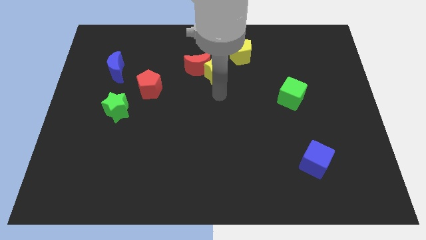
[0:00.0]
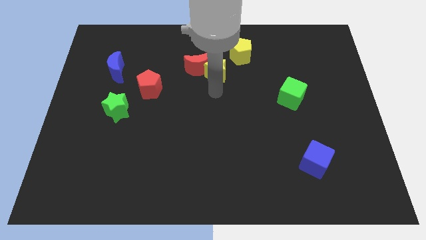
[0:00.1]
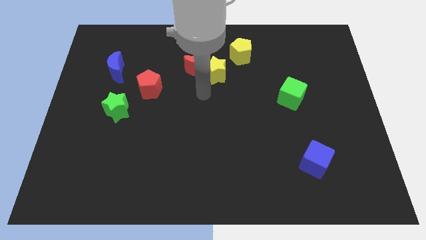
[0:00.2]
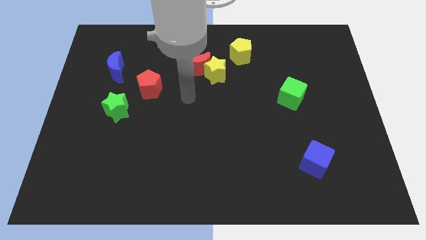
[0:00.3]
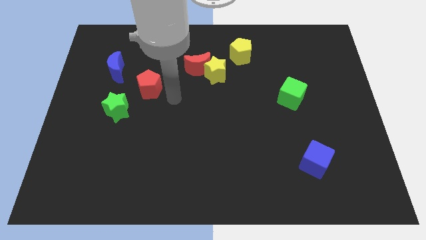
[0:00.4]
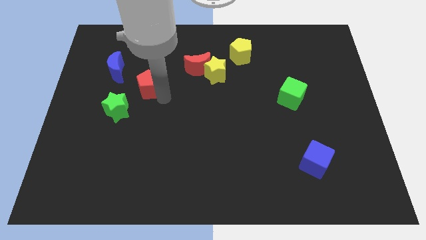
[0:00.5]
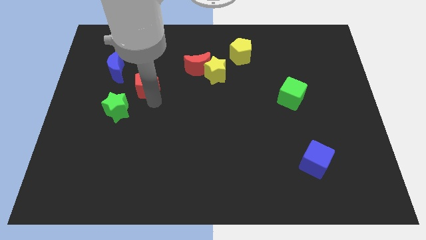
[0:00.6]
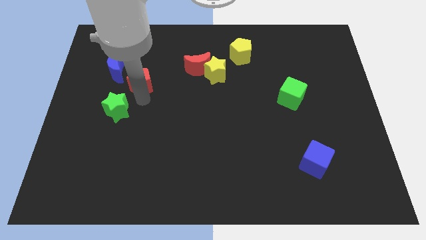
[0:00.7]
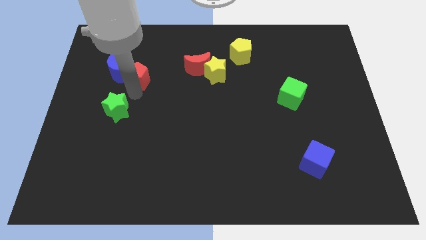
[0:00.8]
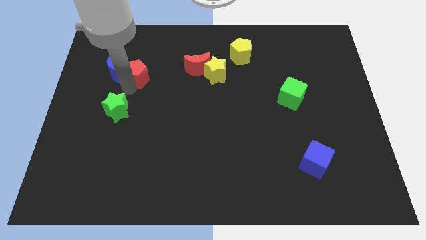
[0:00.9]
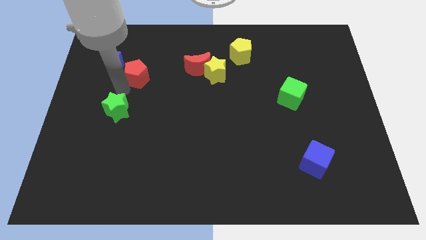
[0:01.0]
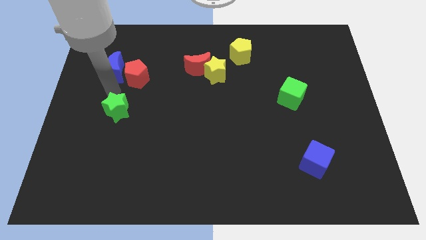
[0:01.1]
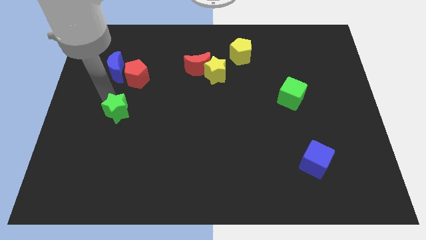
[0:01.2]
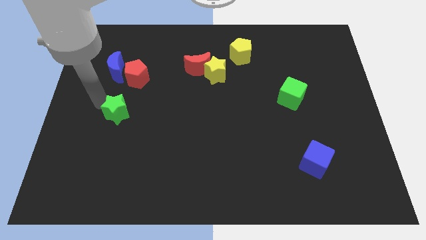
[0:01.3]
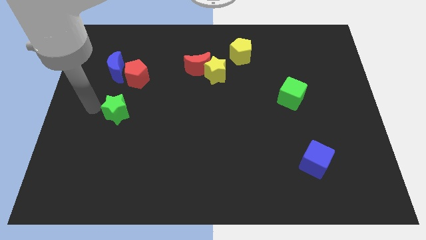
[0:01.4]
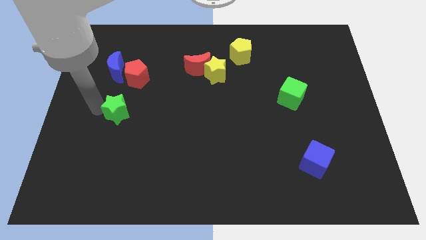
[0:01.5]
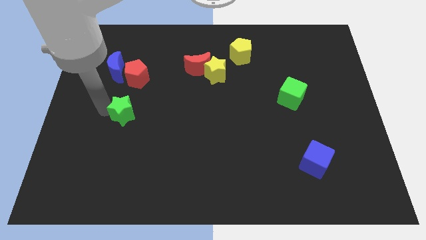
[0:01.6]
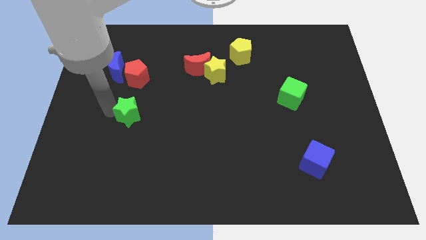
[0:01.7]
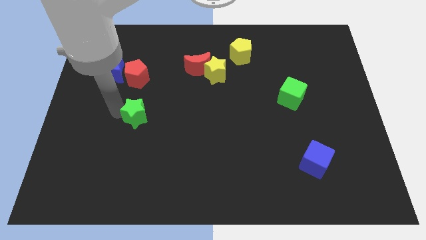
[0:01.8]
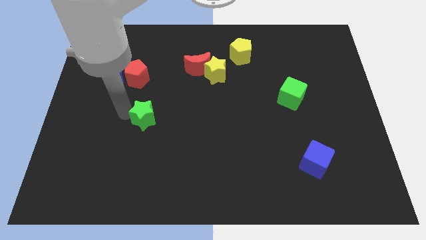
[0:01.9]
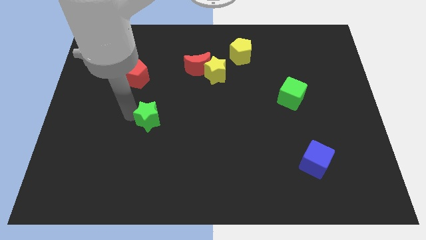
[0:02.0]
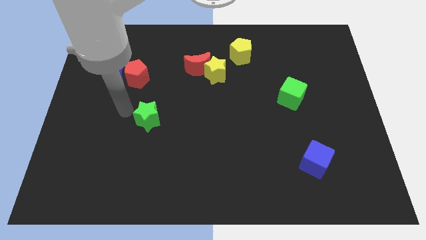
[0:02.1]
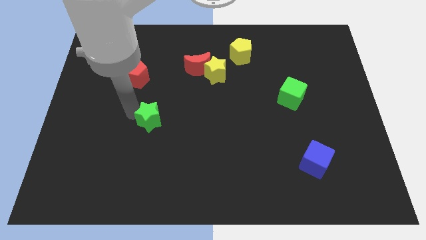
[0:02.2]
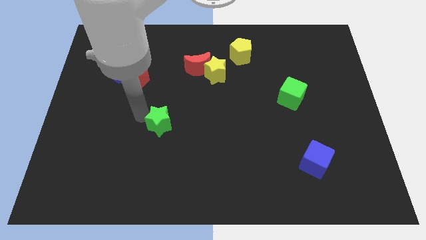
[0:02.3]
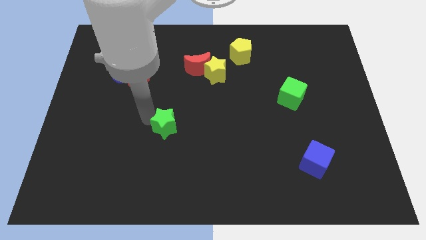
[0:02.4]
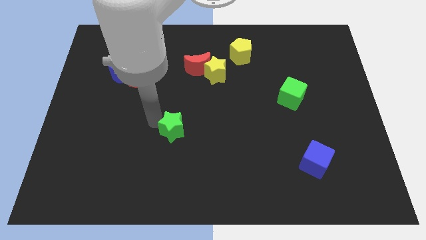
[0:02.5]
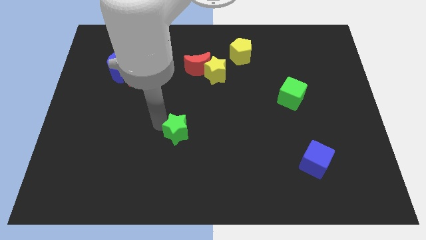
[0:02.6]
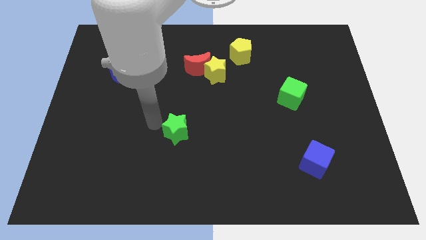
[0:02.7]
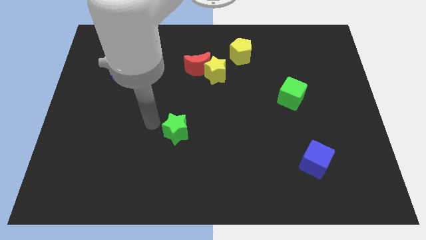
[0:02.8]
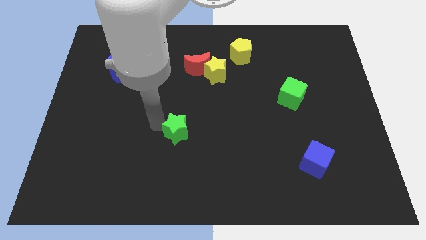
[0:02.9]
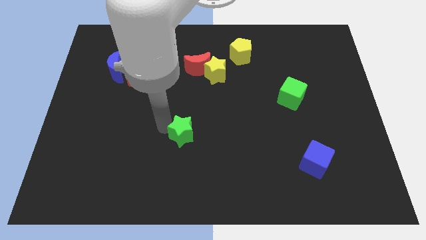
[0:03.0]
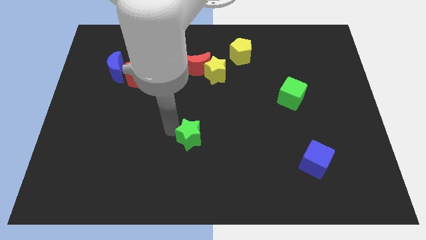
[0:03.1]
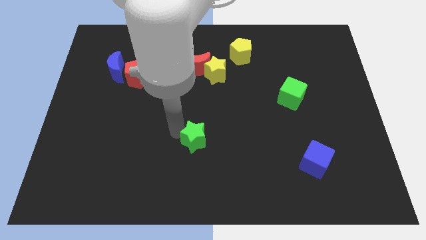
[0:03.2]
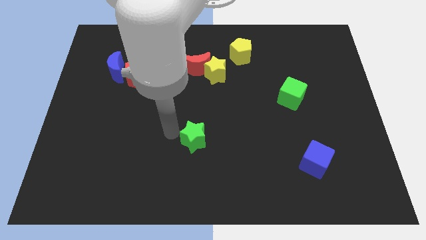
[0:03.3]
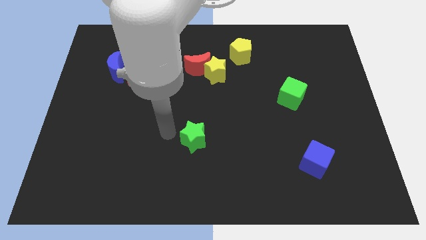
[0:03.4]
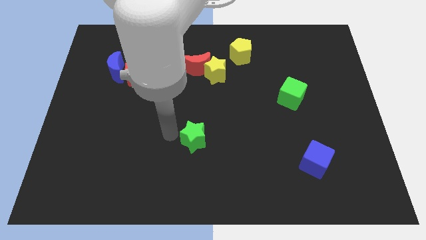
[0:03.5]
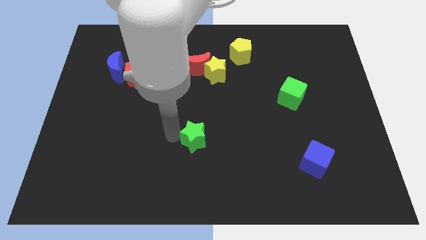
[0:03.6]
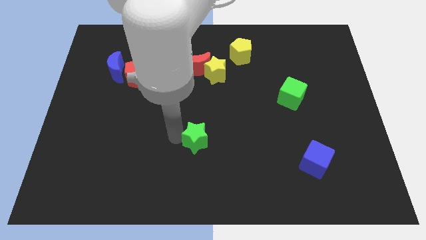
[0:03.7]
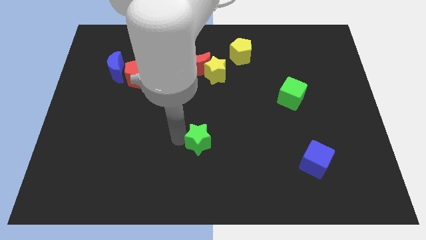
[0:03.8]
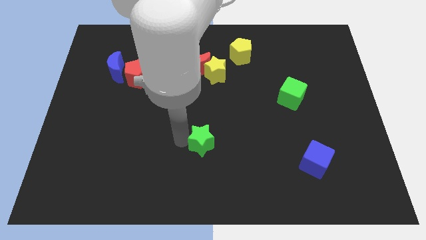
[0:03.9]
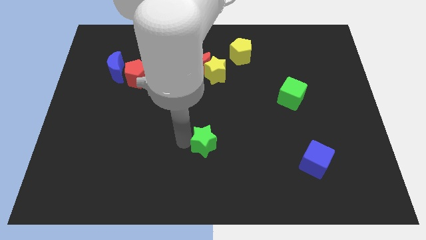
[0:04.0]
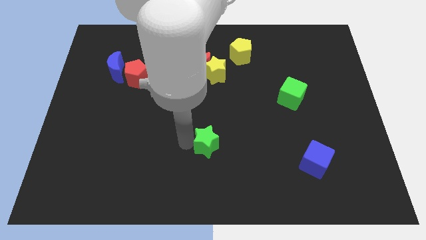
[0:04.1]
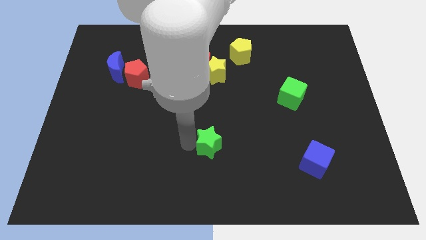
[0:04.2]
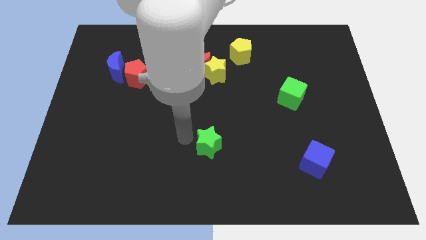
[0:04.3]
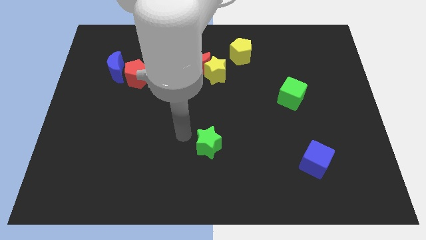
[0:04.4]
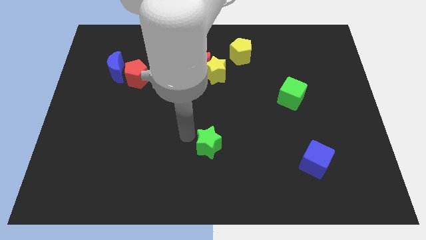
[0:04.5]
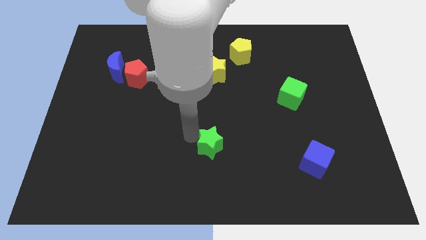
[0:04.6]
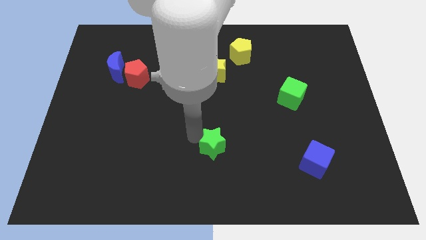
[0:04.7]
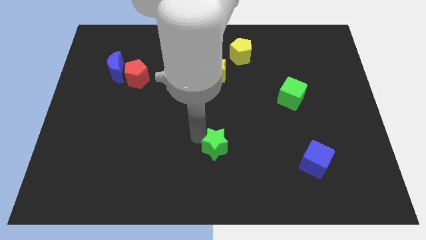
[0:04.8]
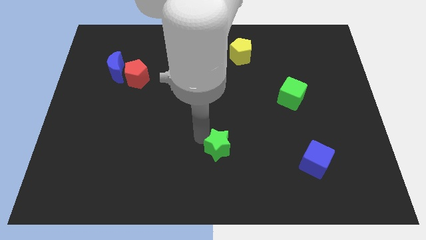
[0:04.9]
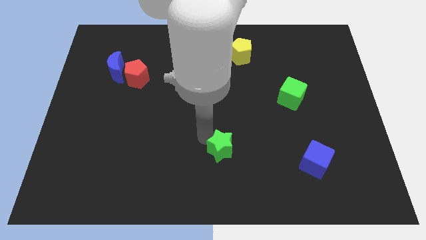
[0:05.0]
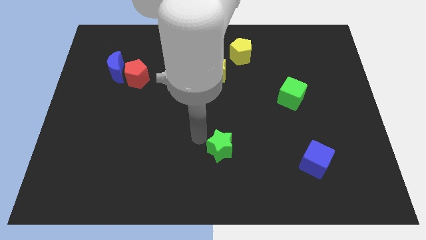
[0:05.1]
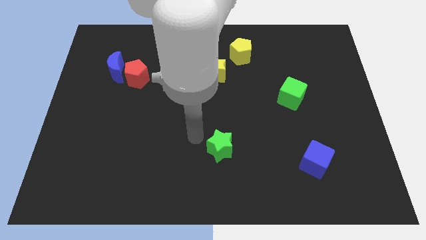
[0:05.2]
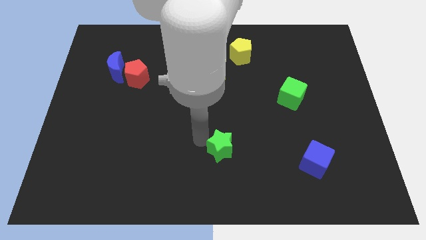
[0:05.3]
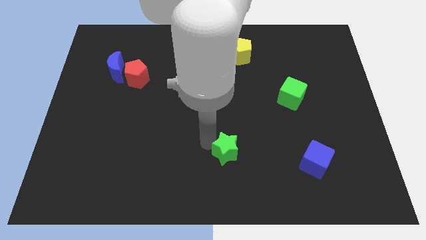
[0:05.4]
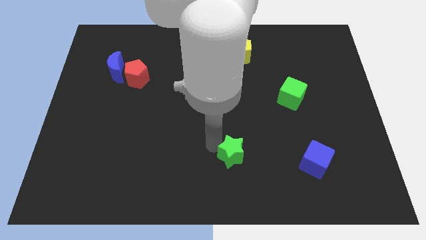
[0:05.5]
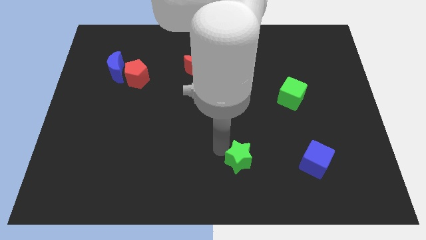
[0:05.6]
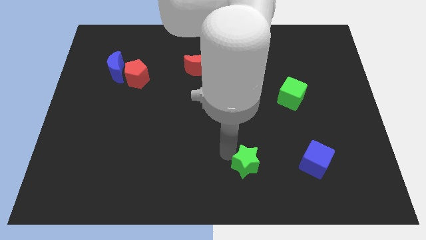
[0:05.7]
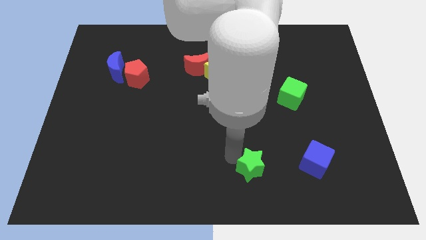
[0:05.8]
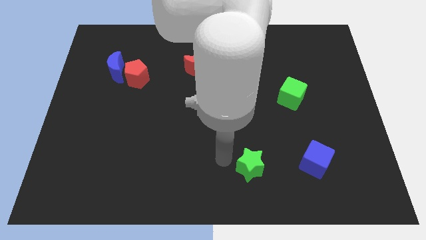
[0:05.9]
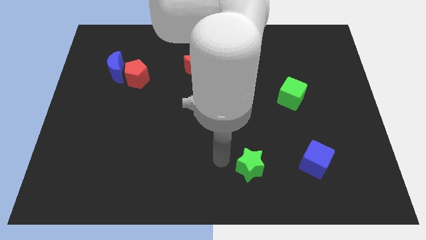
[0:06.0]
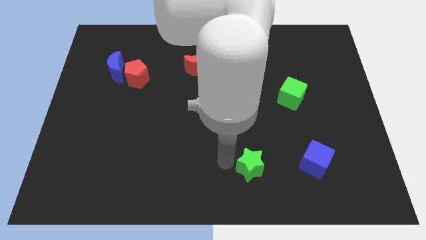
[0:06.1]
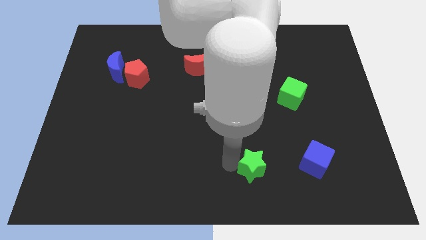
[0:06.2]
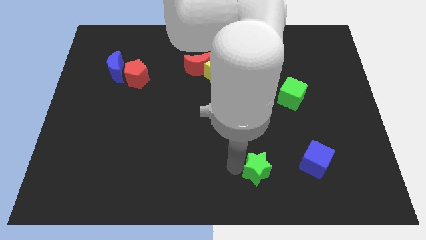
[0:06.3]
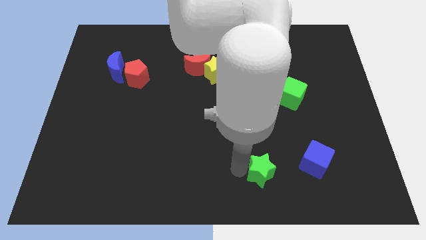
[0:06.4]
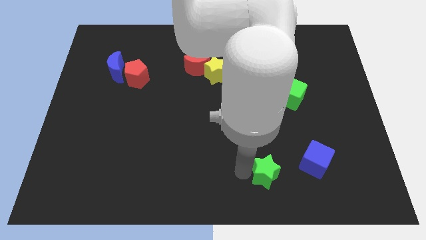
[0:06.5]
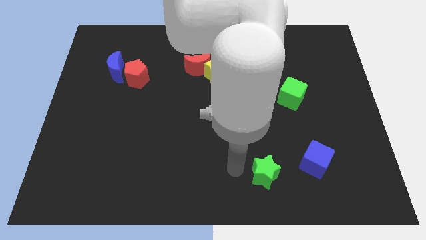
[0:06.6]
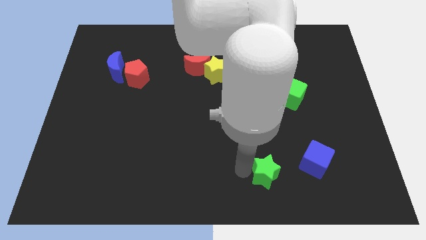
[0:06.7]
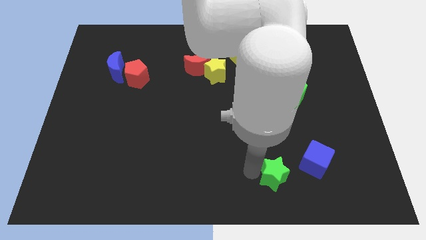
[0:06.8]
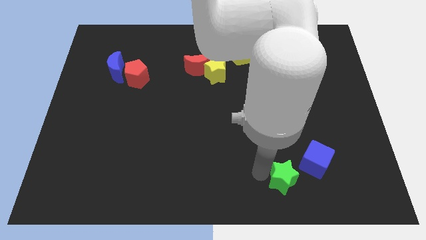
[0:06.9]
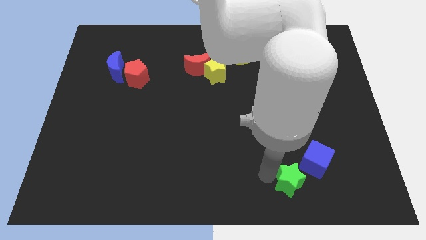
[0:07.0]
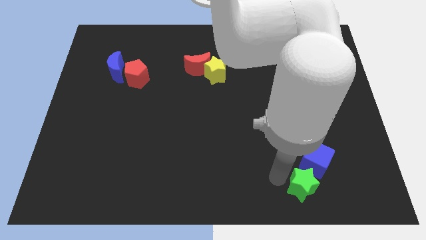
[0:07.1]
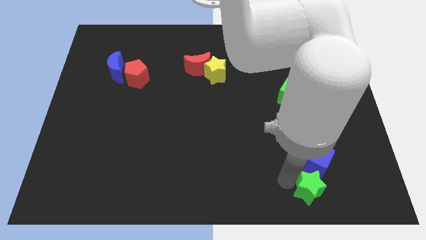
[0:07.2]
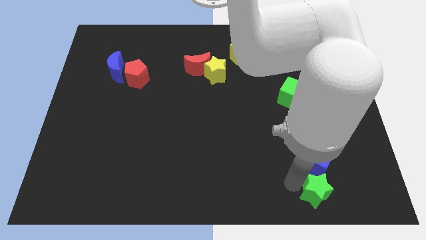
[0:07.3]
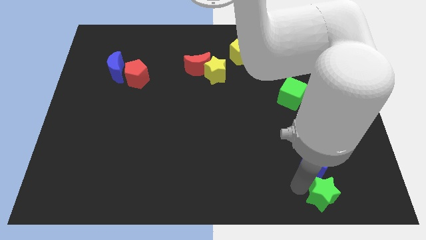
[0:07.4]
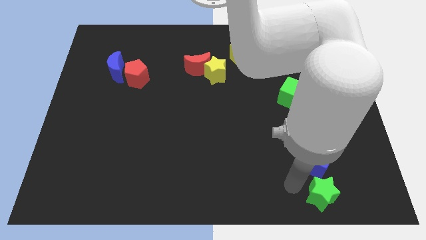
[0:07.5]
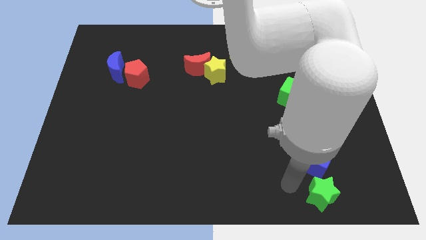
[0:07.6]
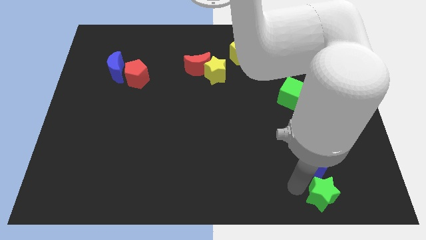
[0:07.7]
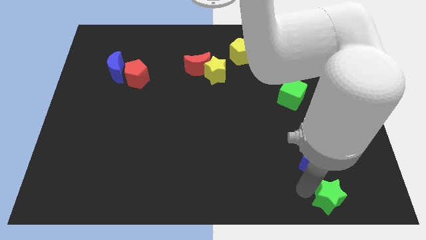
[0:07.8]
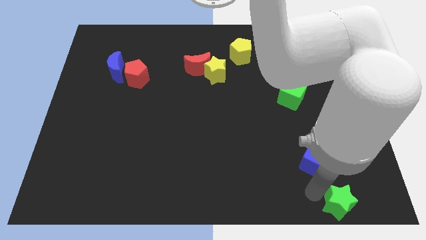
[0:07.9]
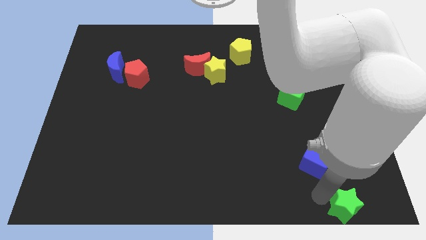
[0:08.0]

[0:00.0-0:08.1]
slide the green star to the lower right corner
